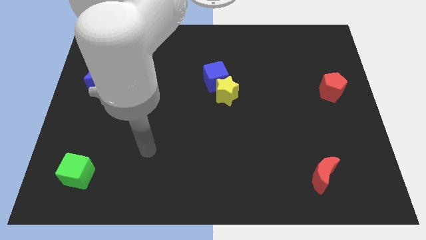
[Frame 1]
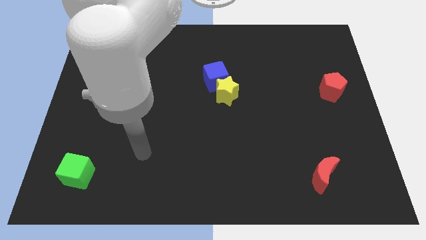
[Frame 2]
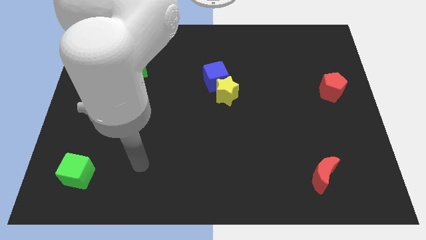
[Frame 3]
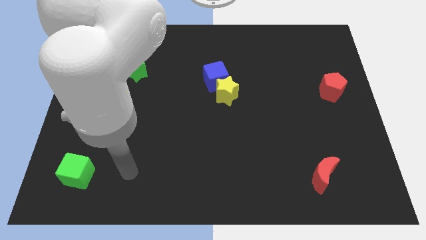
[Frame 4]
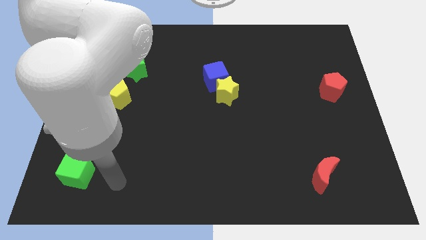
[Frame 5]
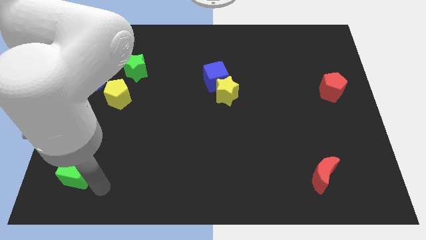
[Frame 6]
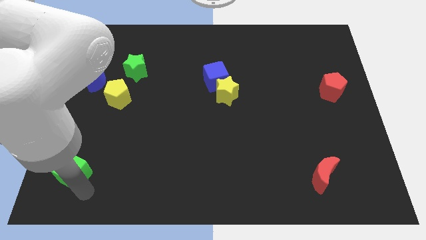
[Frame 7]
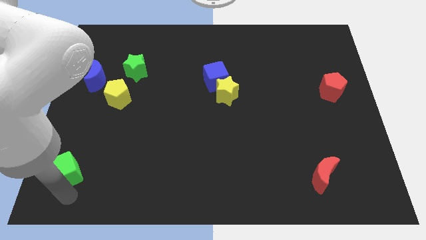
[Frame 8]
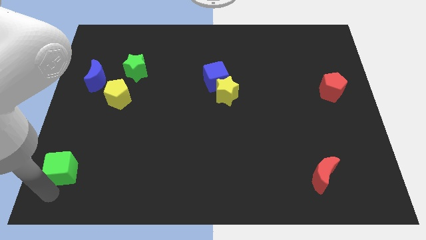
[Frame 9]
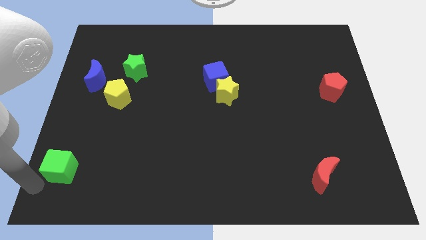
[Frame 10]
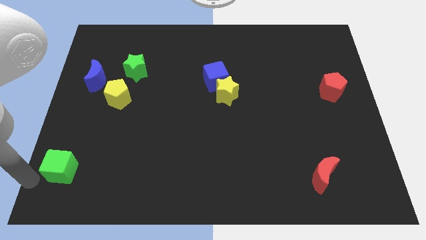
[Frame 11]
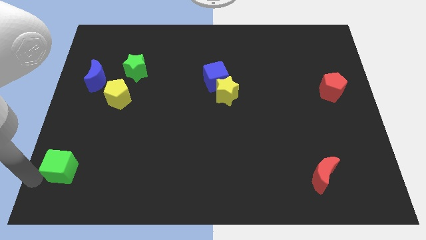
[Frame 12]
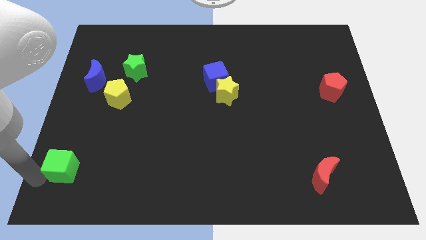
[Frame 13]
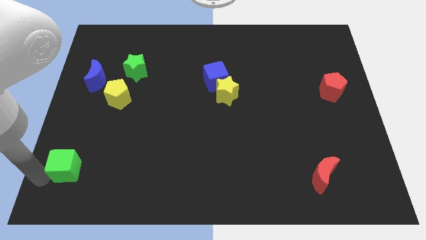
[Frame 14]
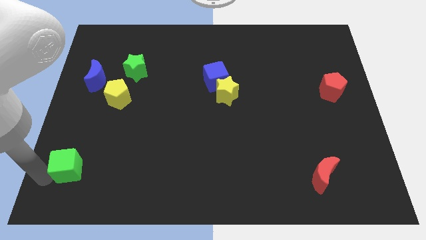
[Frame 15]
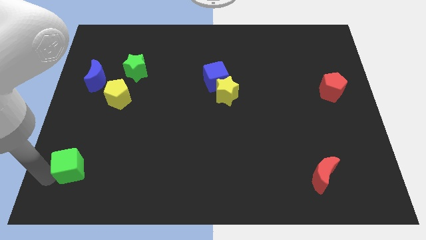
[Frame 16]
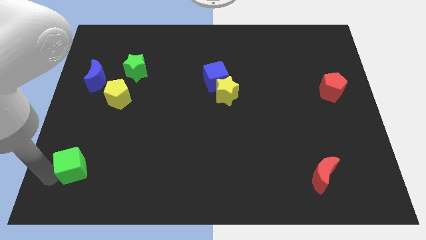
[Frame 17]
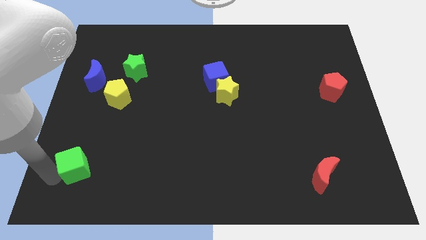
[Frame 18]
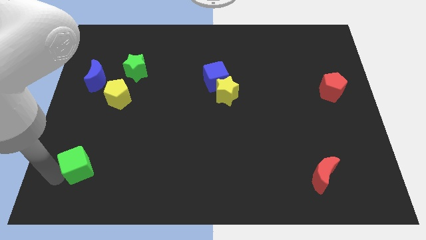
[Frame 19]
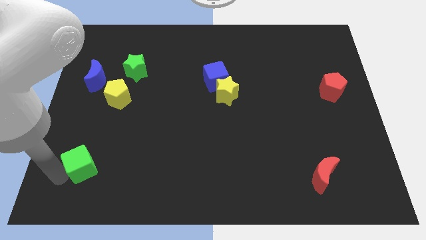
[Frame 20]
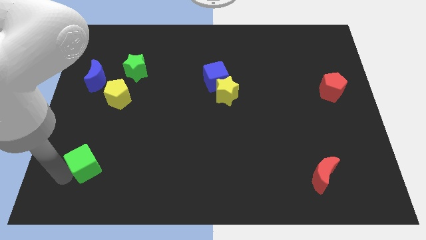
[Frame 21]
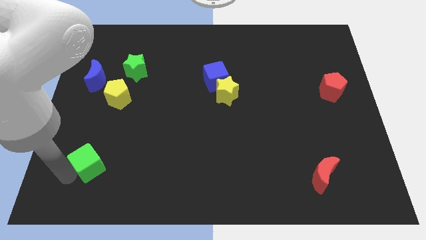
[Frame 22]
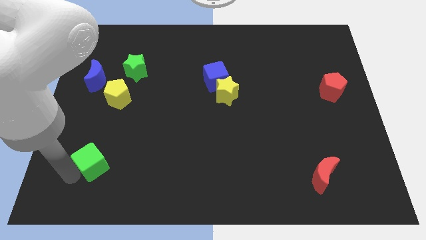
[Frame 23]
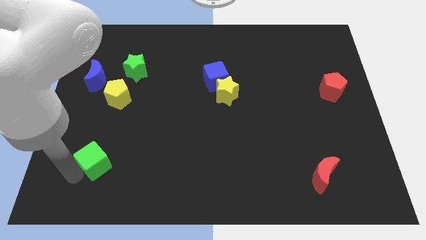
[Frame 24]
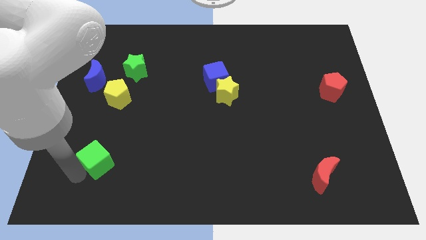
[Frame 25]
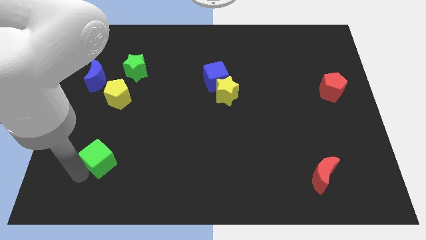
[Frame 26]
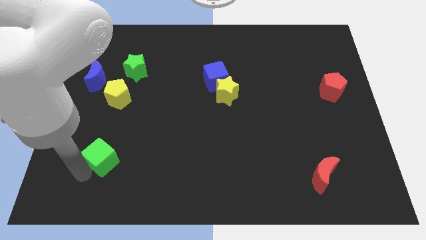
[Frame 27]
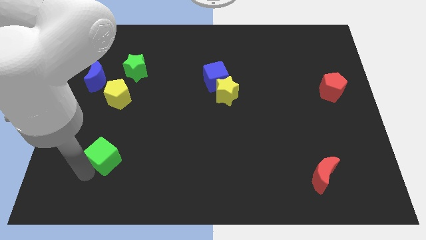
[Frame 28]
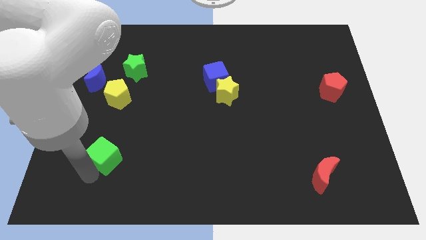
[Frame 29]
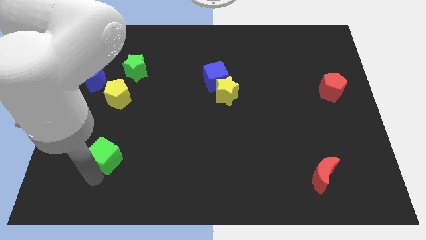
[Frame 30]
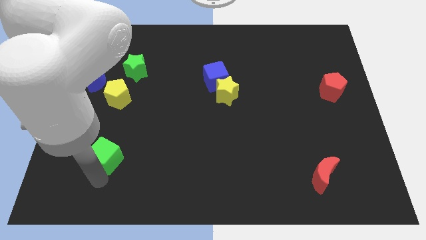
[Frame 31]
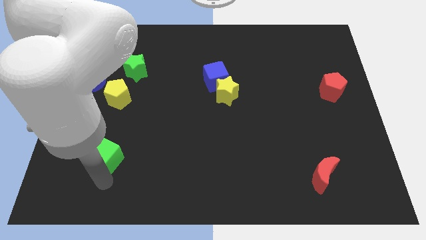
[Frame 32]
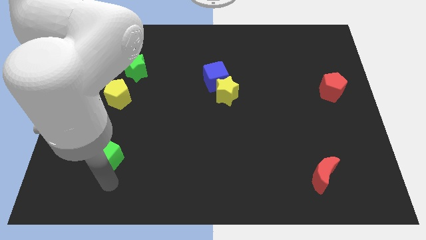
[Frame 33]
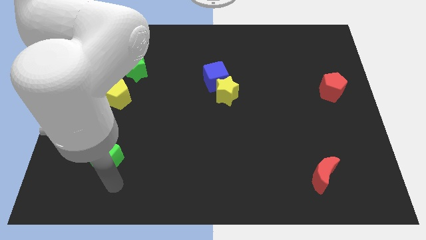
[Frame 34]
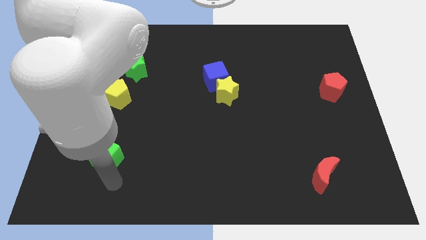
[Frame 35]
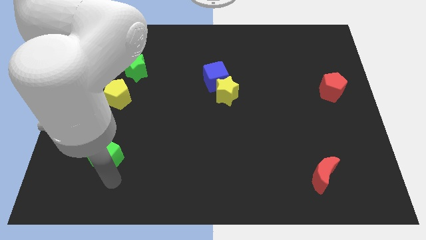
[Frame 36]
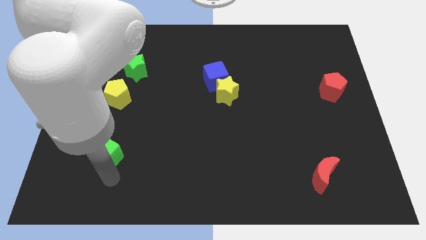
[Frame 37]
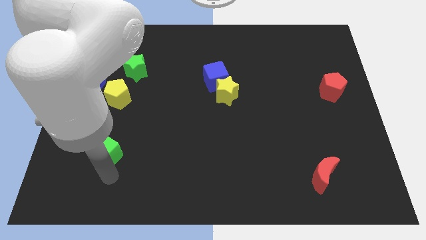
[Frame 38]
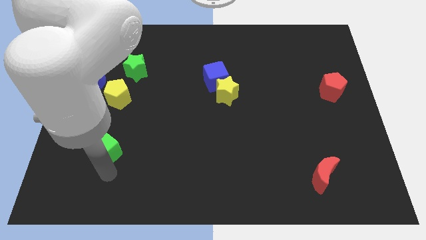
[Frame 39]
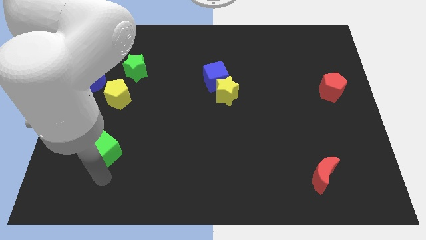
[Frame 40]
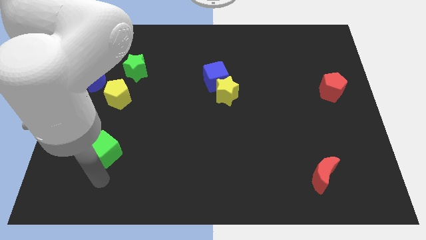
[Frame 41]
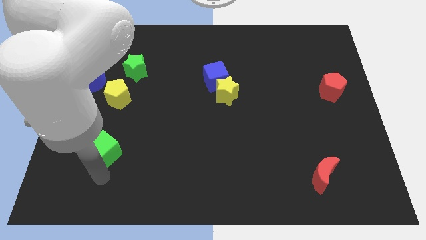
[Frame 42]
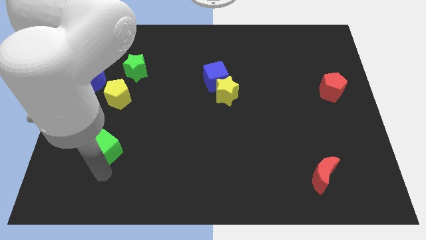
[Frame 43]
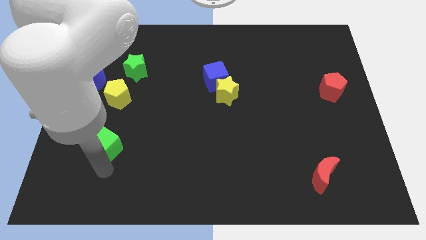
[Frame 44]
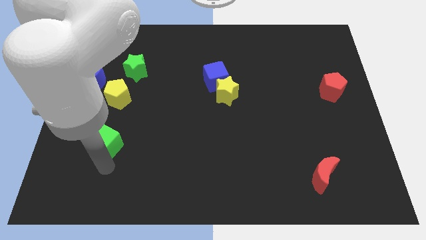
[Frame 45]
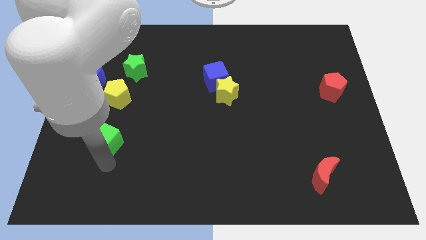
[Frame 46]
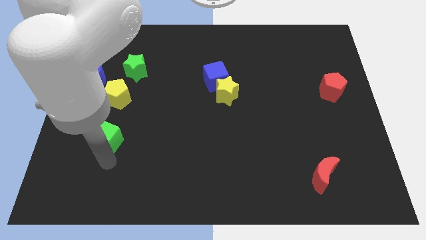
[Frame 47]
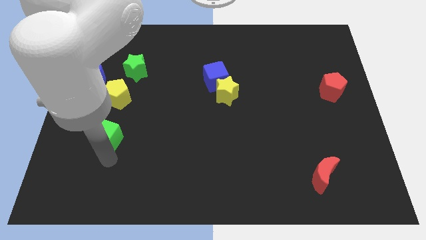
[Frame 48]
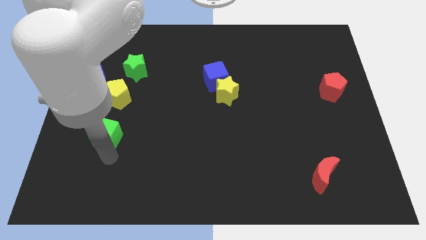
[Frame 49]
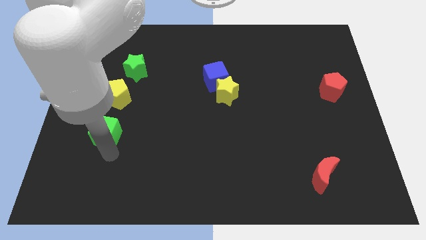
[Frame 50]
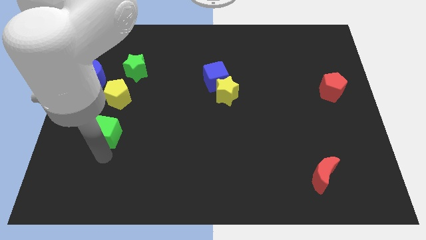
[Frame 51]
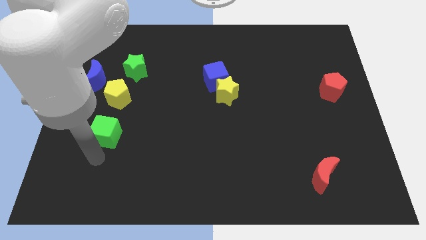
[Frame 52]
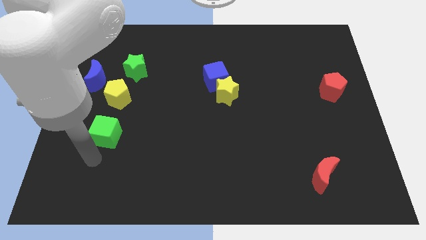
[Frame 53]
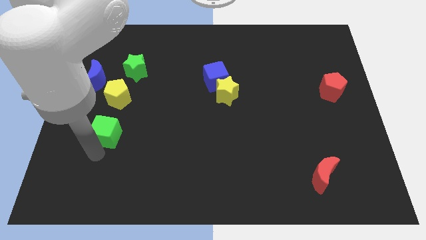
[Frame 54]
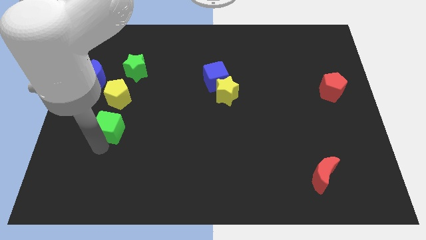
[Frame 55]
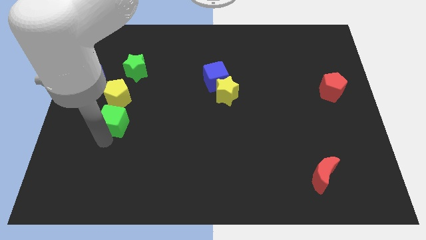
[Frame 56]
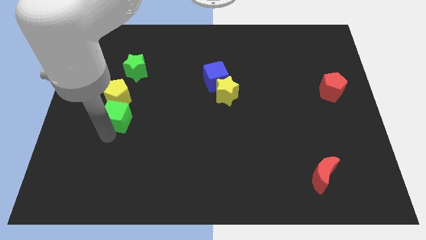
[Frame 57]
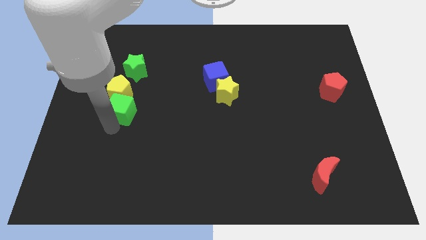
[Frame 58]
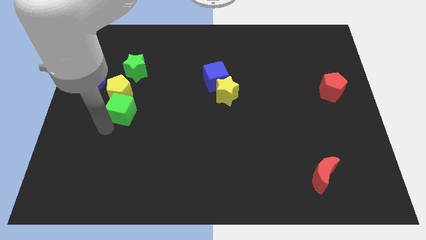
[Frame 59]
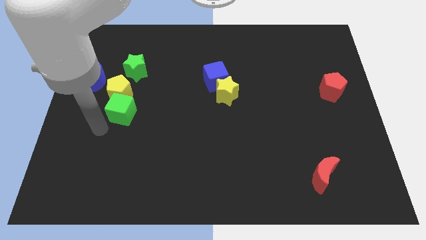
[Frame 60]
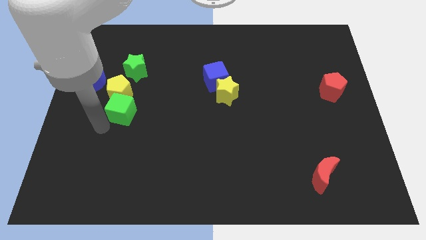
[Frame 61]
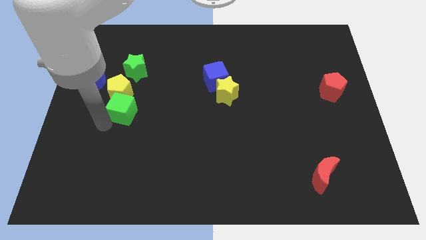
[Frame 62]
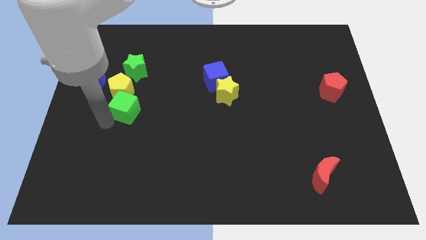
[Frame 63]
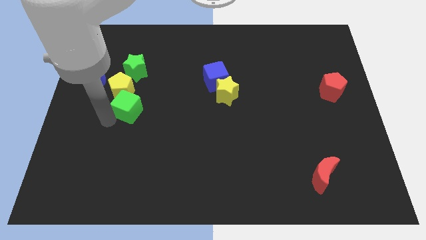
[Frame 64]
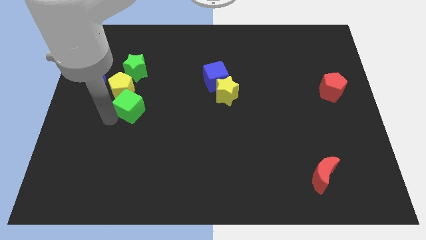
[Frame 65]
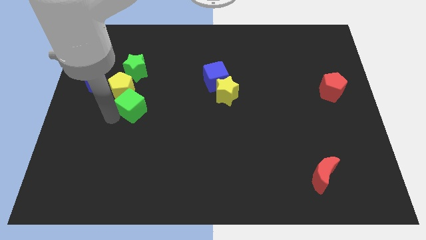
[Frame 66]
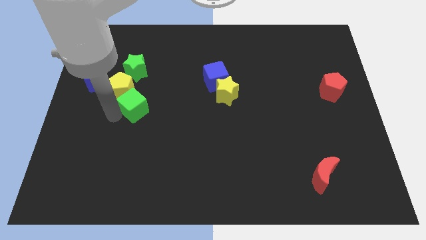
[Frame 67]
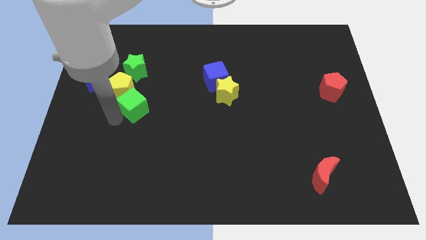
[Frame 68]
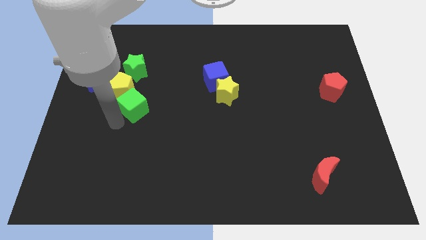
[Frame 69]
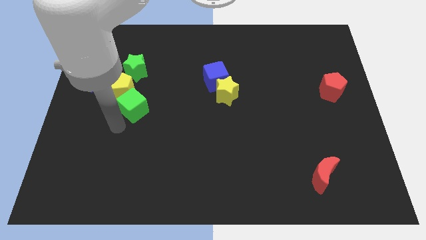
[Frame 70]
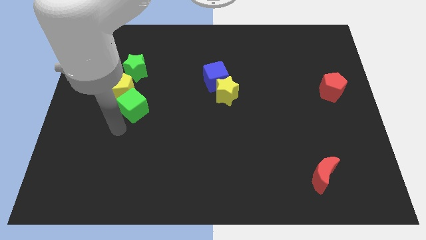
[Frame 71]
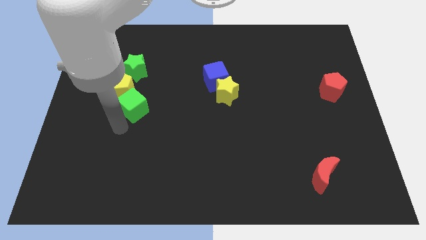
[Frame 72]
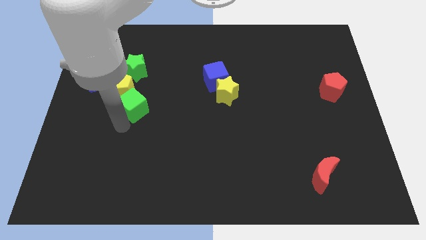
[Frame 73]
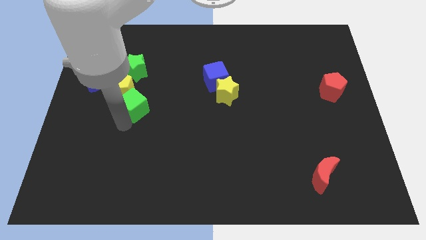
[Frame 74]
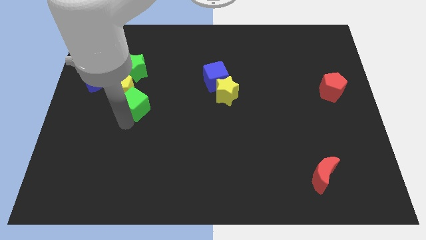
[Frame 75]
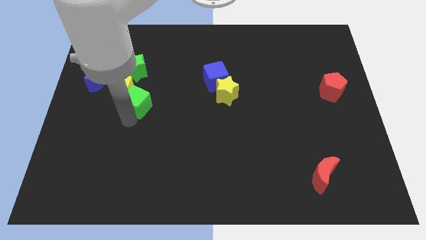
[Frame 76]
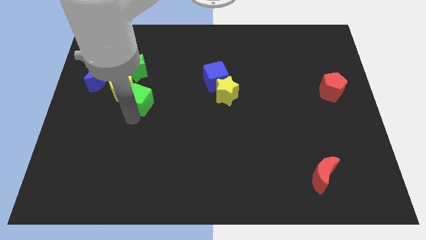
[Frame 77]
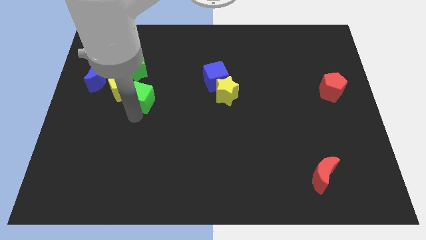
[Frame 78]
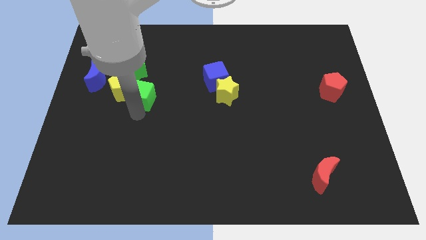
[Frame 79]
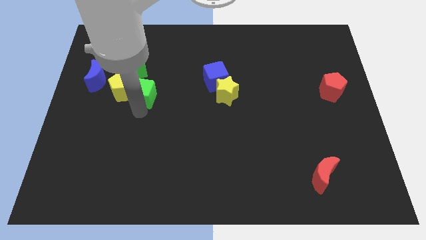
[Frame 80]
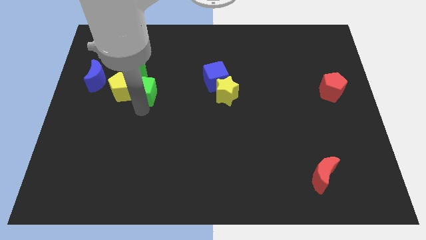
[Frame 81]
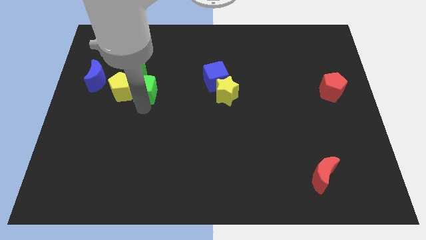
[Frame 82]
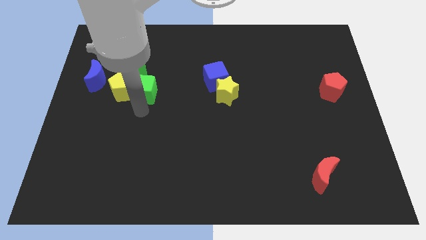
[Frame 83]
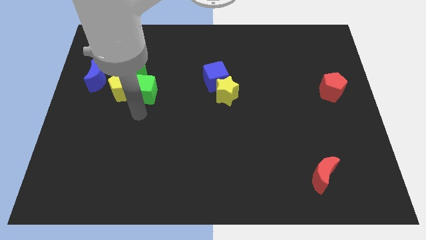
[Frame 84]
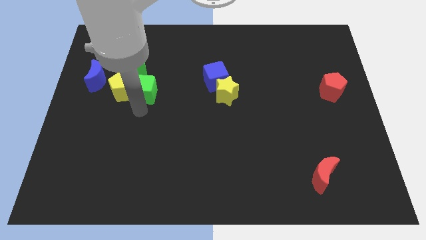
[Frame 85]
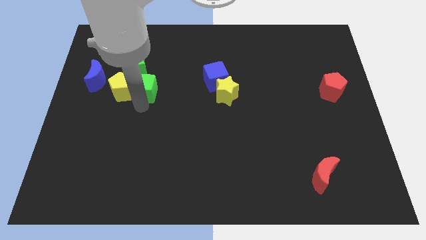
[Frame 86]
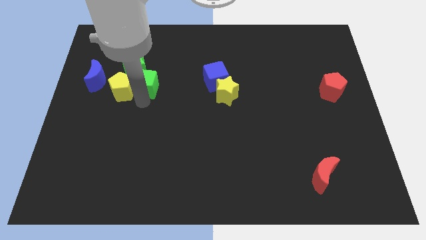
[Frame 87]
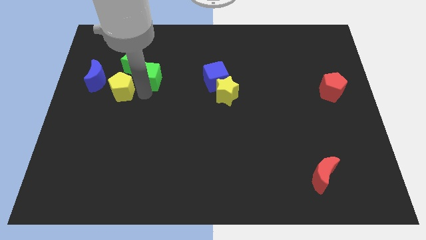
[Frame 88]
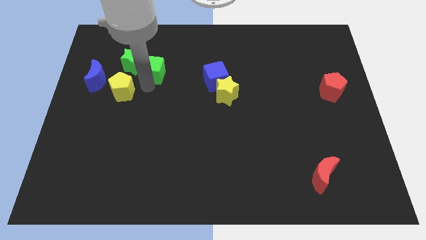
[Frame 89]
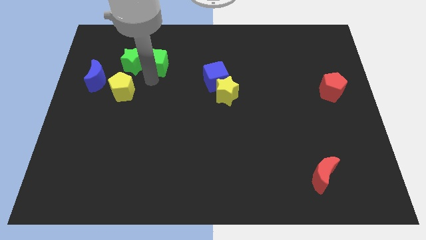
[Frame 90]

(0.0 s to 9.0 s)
move the green cube diagonally up and to the right of the green star
